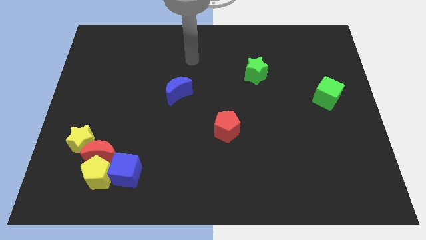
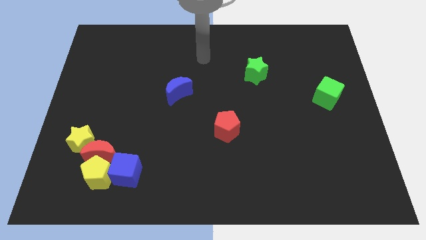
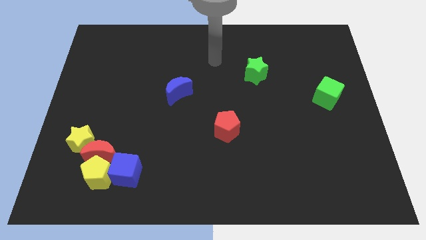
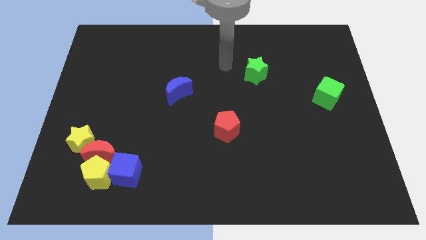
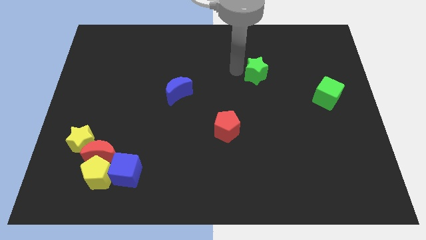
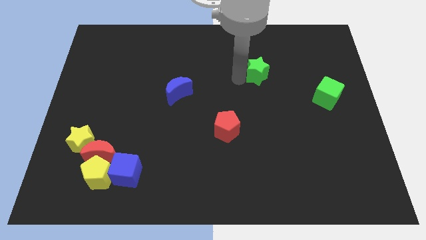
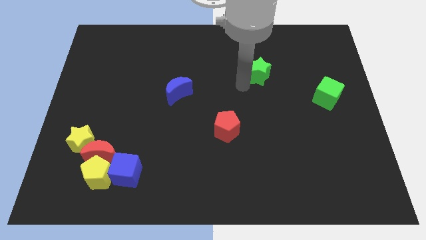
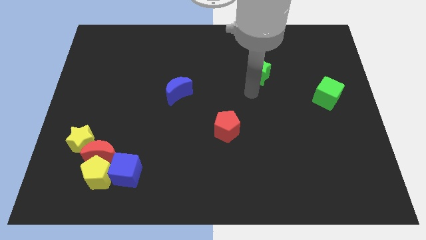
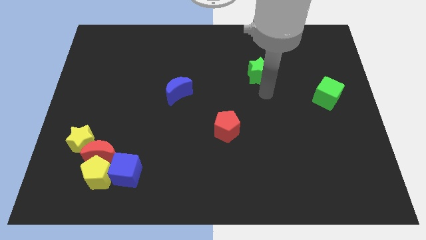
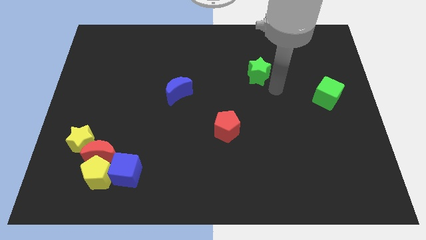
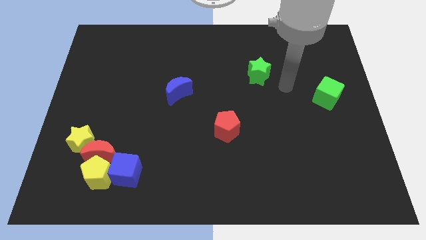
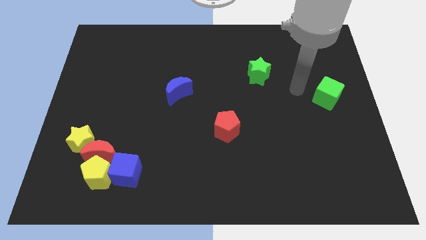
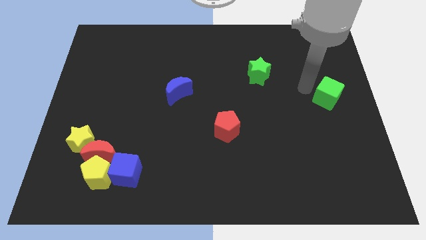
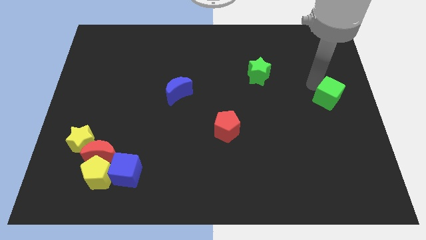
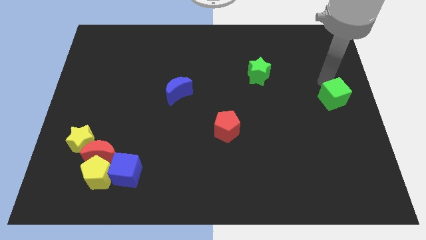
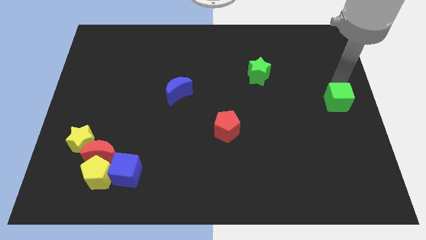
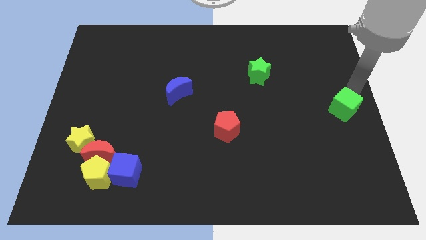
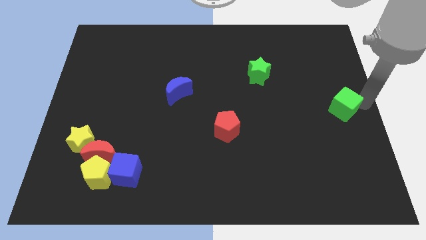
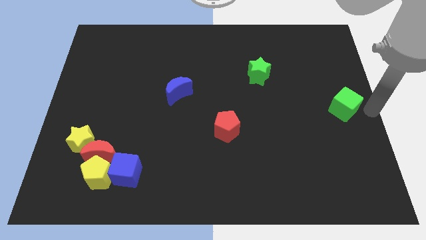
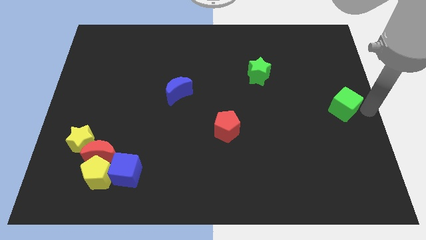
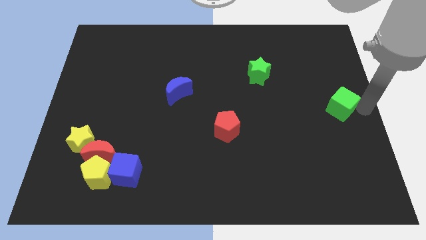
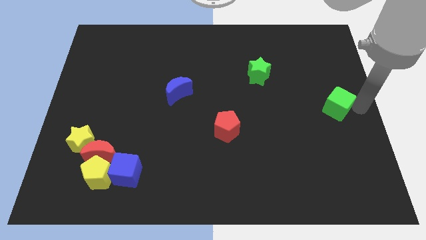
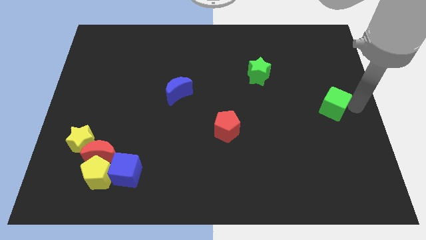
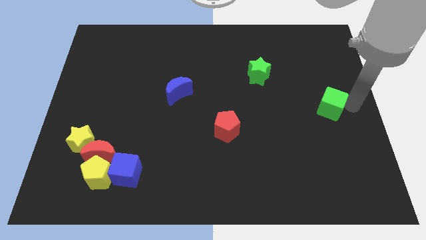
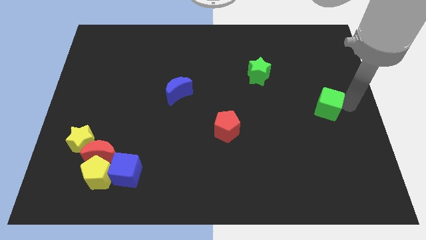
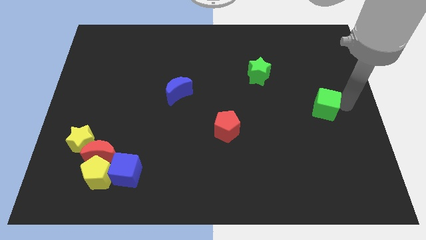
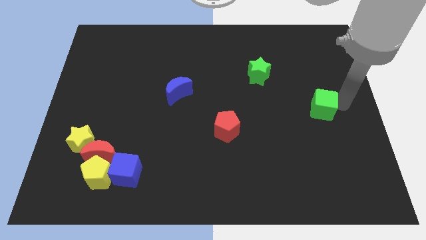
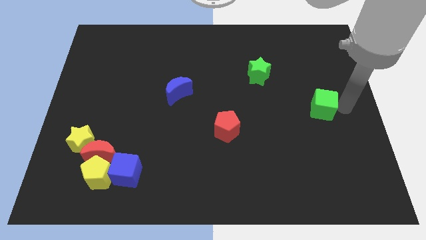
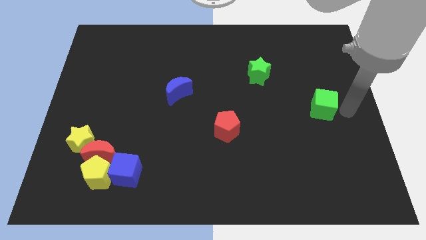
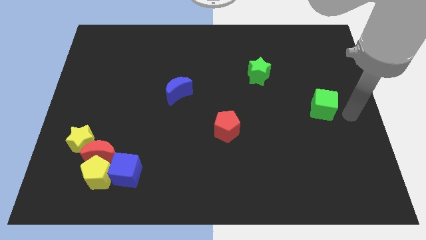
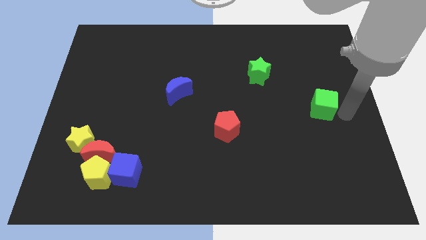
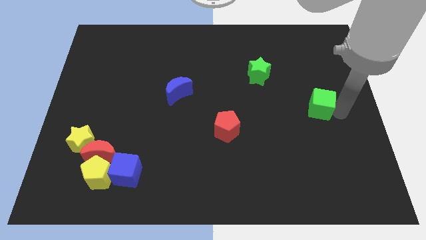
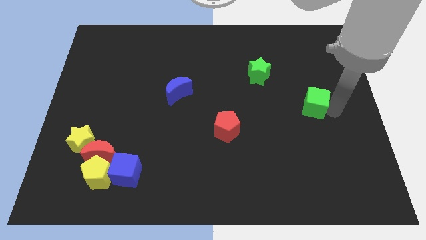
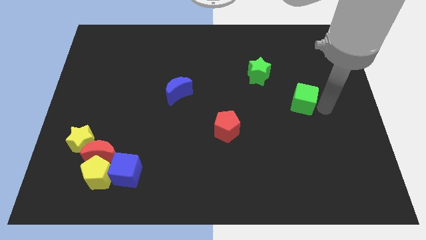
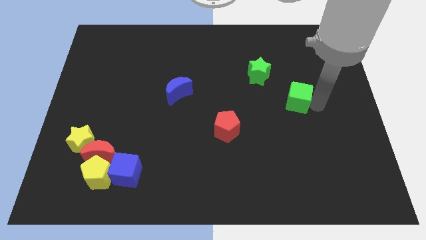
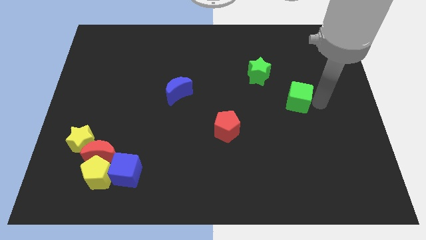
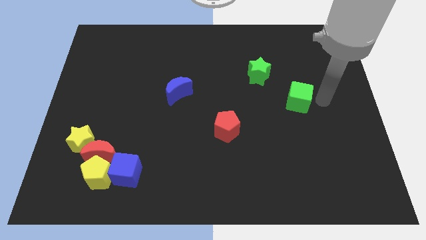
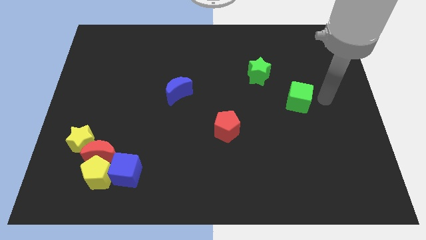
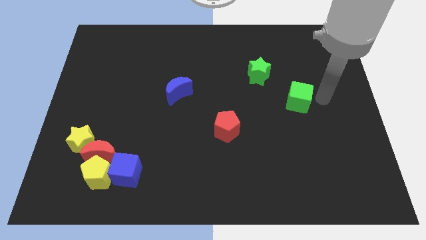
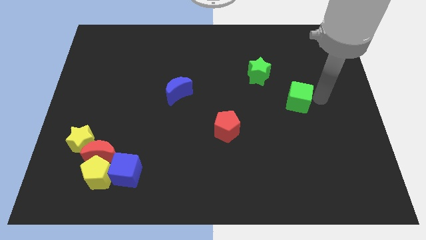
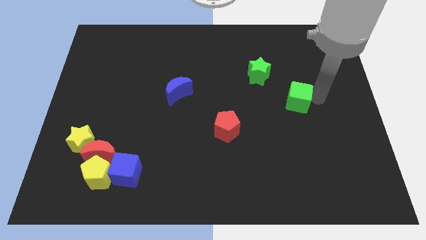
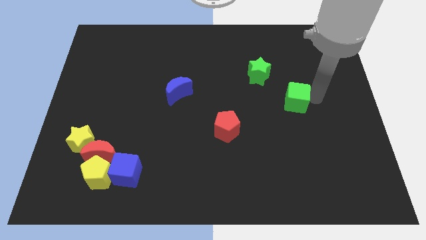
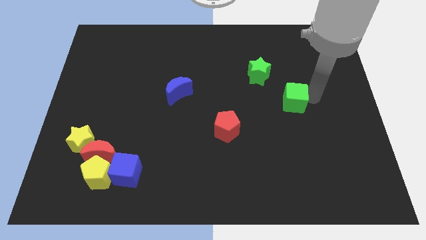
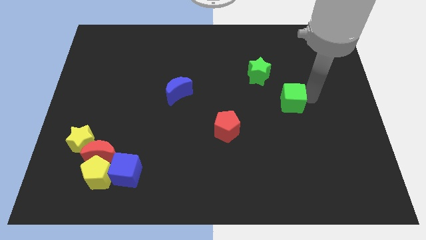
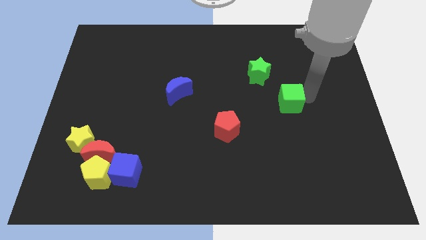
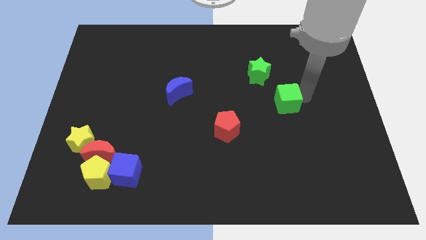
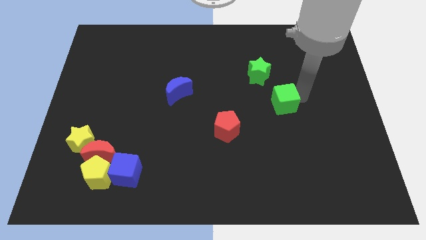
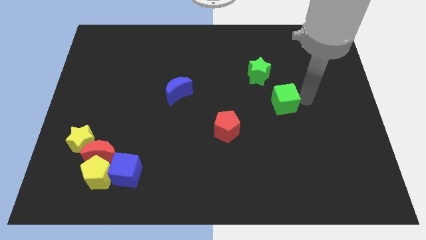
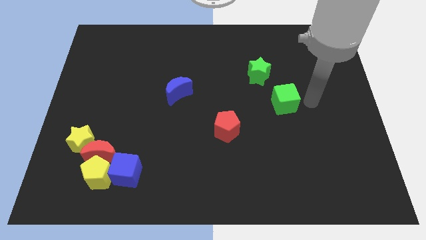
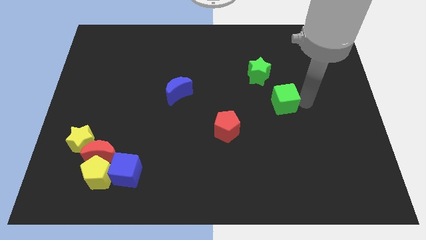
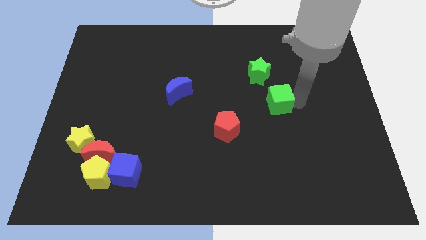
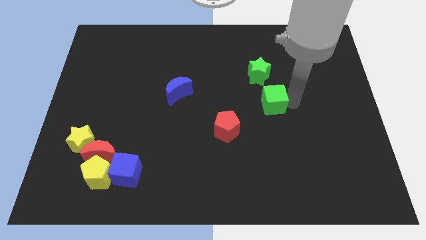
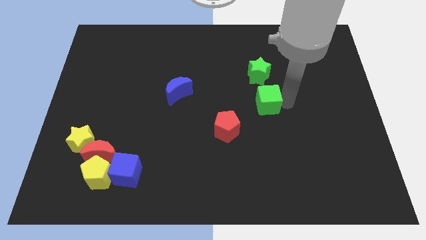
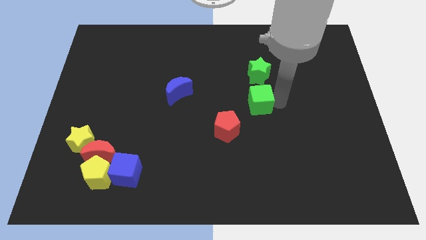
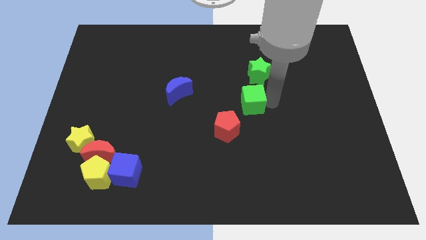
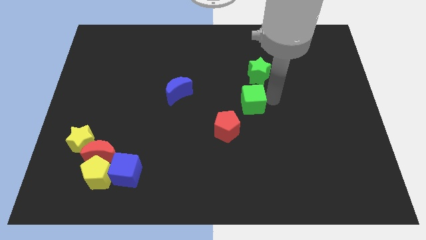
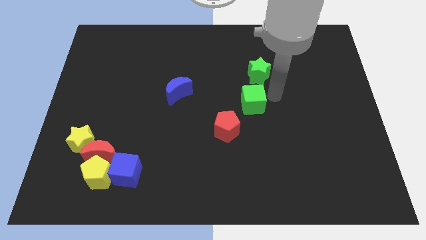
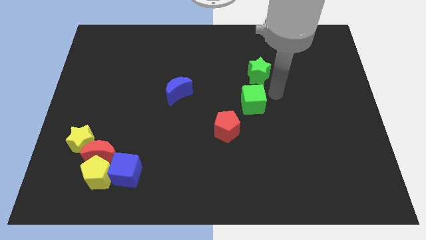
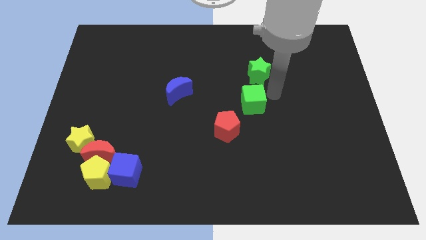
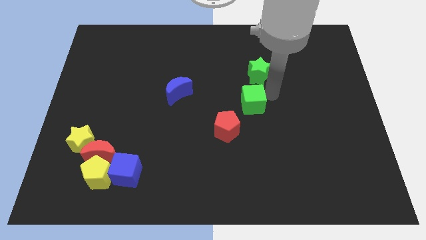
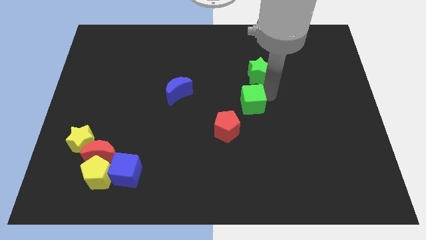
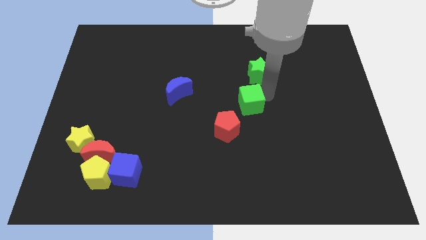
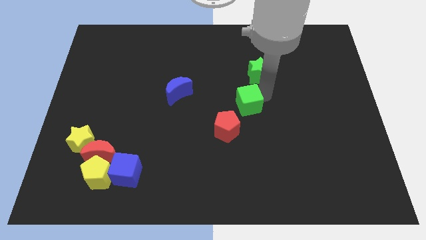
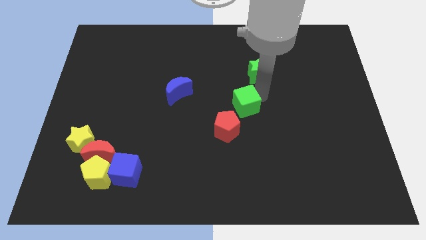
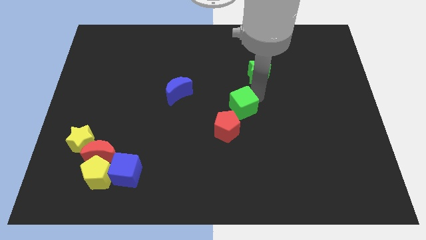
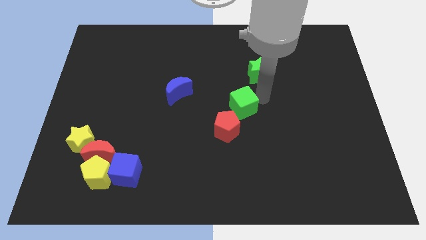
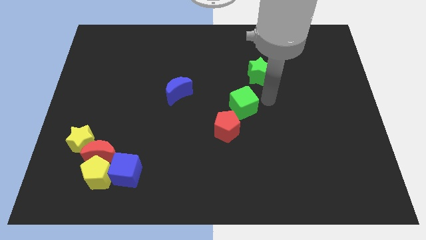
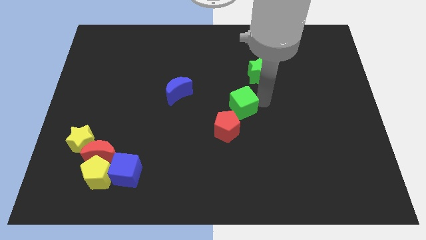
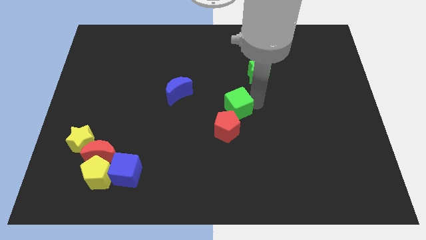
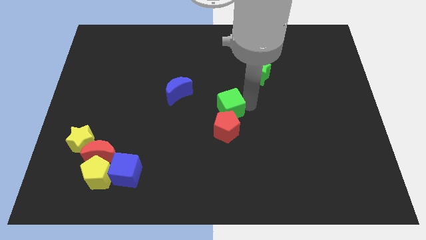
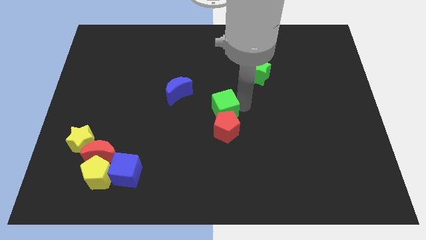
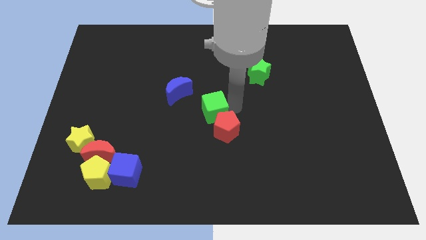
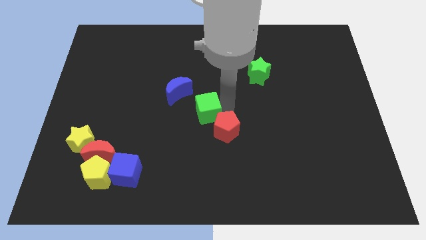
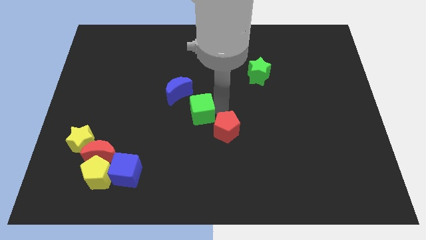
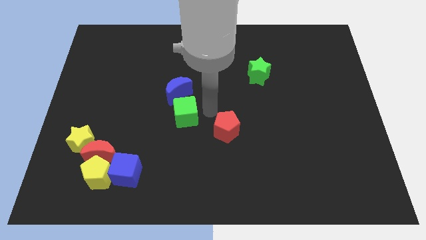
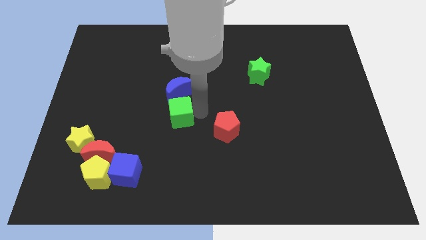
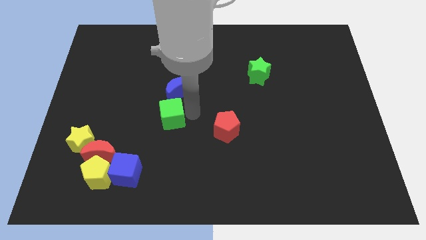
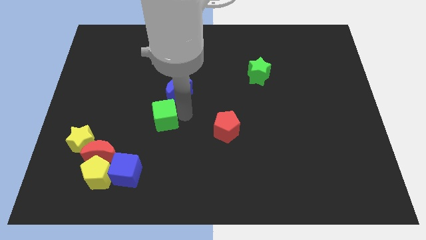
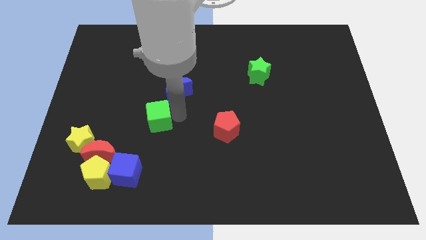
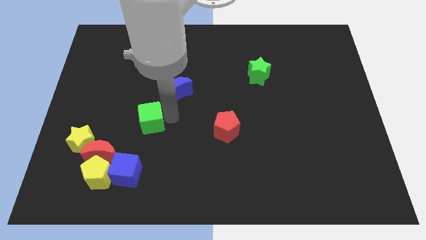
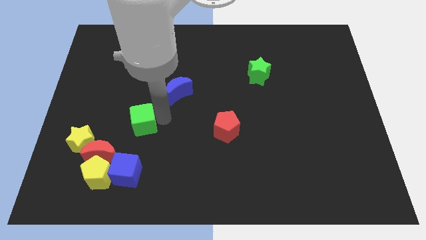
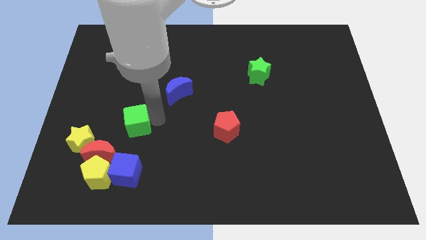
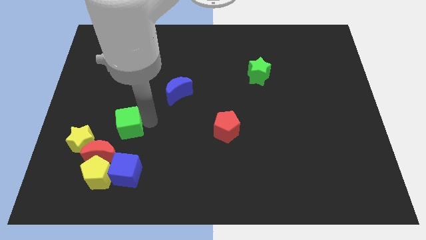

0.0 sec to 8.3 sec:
put the green cube to the top of the yellow pentagon
